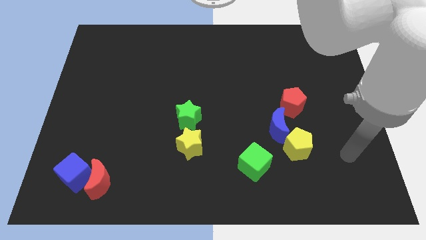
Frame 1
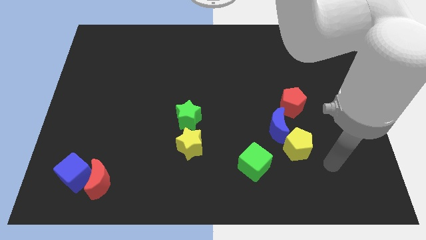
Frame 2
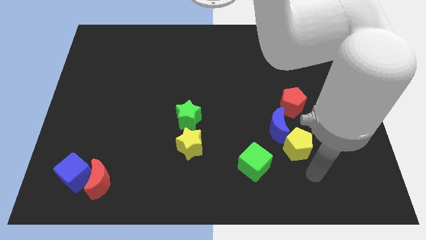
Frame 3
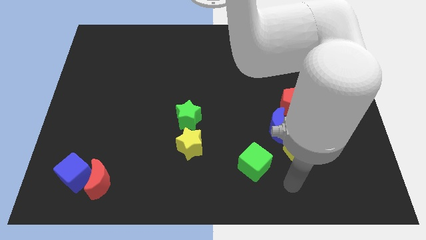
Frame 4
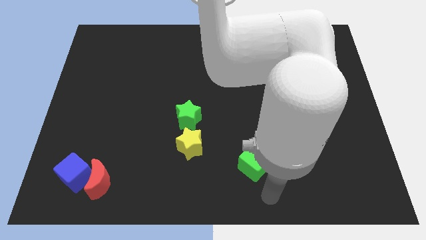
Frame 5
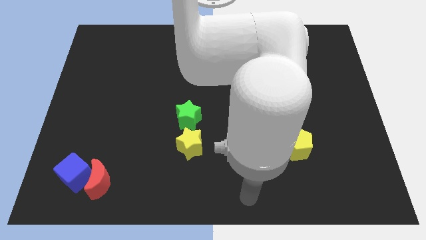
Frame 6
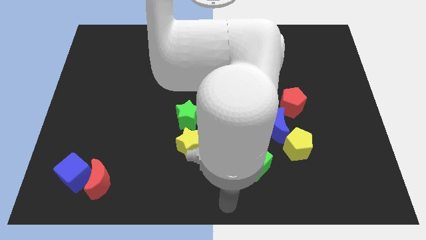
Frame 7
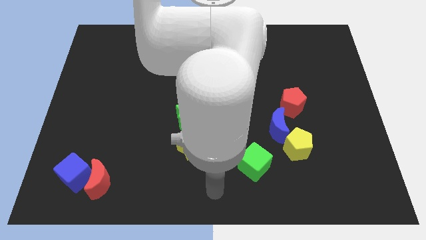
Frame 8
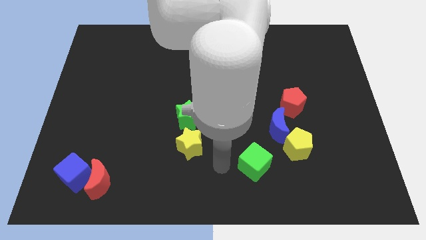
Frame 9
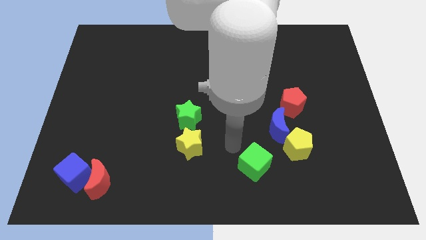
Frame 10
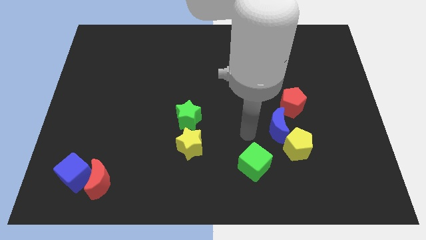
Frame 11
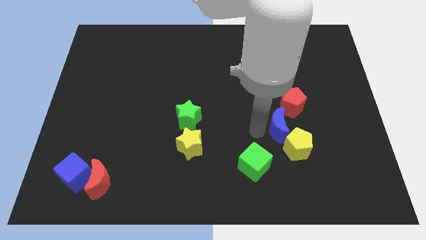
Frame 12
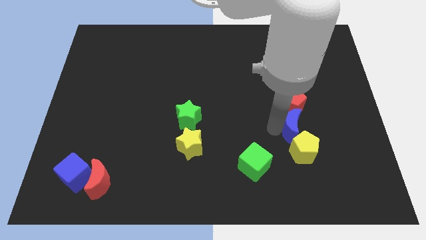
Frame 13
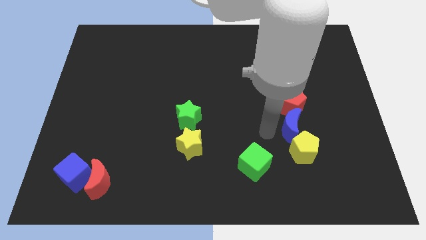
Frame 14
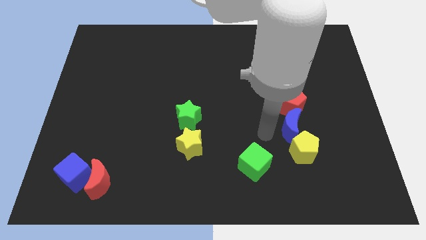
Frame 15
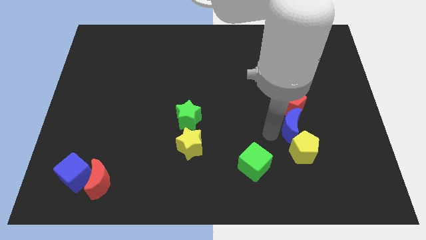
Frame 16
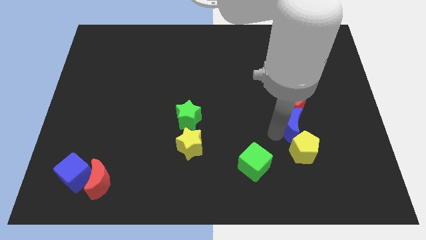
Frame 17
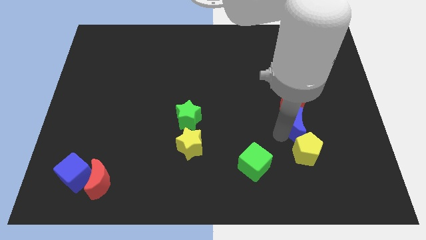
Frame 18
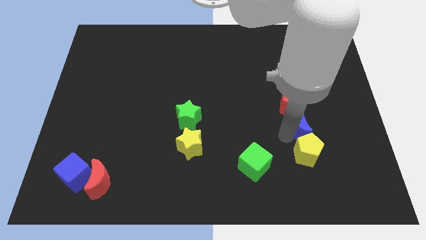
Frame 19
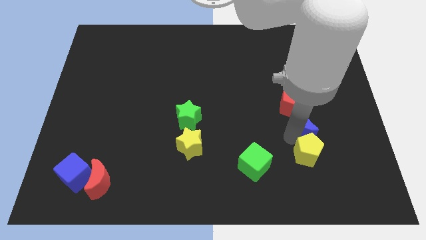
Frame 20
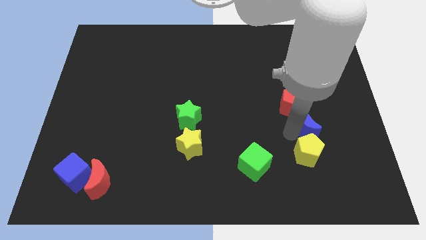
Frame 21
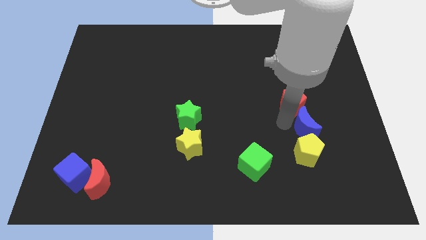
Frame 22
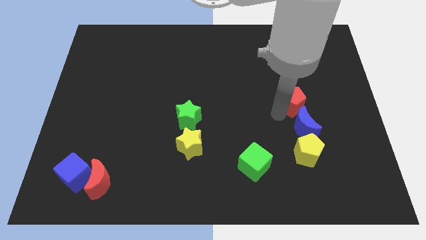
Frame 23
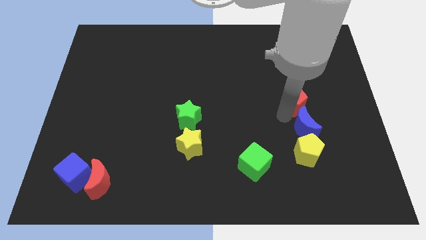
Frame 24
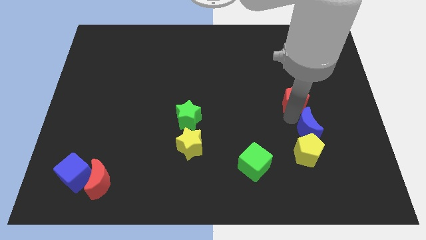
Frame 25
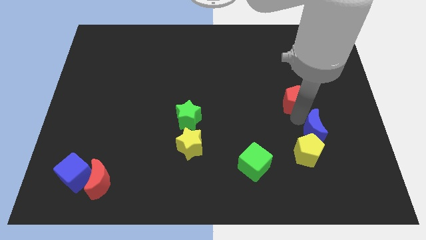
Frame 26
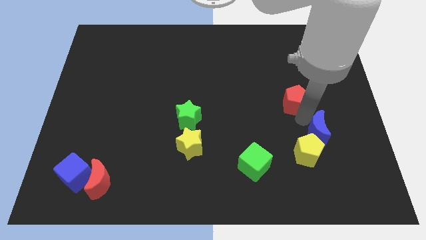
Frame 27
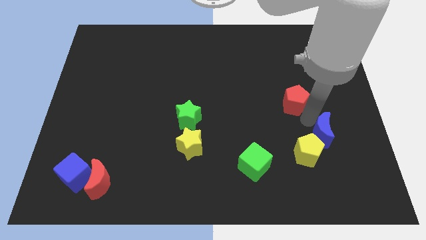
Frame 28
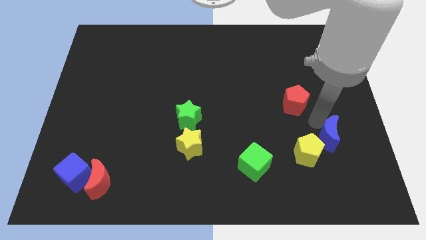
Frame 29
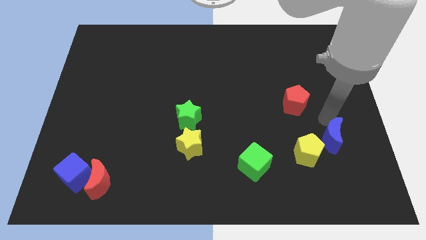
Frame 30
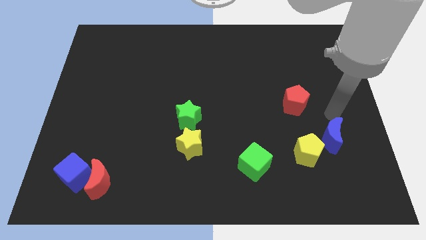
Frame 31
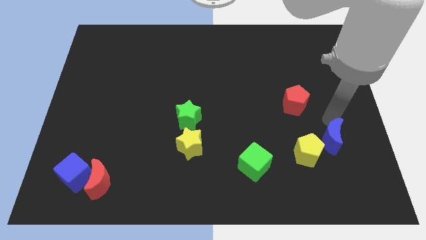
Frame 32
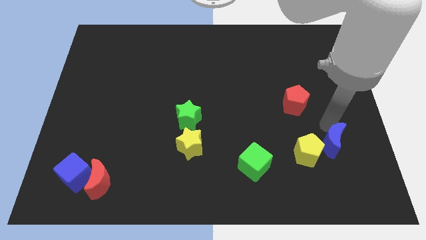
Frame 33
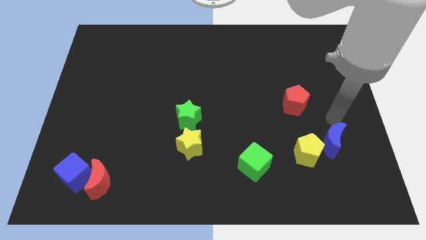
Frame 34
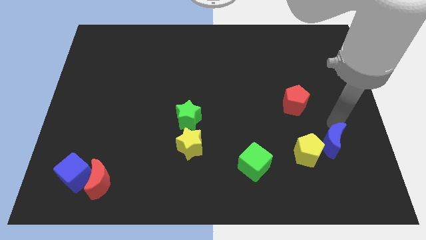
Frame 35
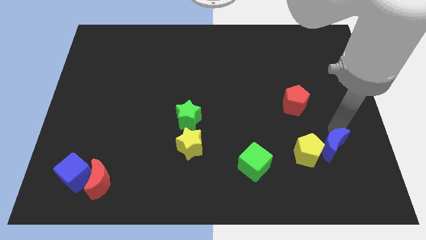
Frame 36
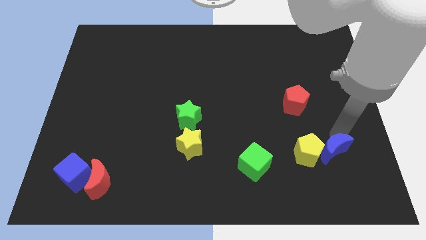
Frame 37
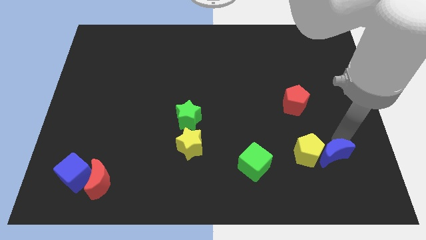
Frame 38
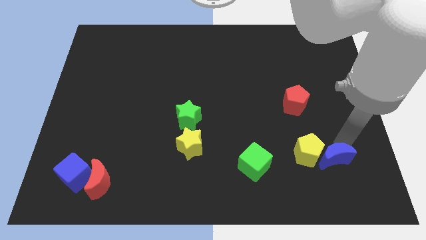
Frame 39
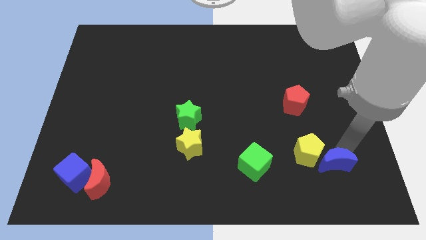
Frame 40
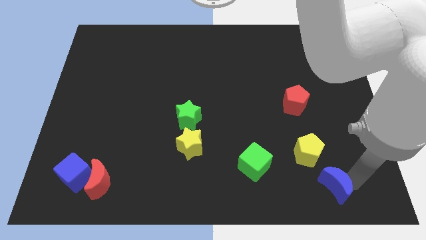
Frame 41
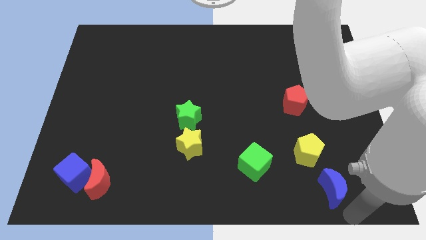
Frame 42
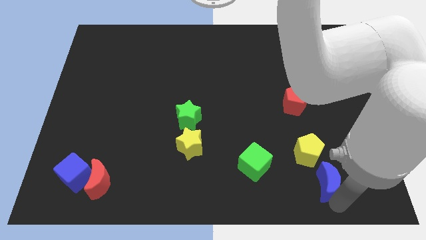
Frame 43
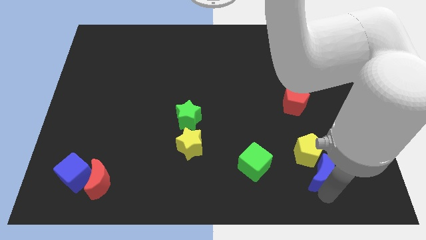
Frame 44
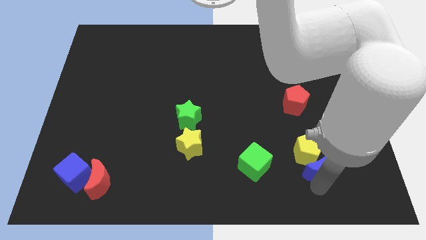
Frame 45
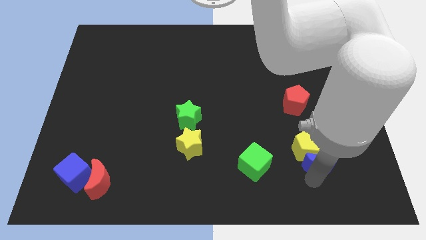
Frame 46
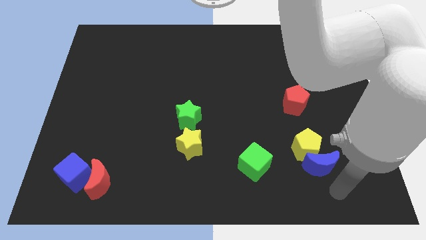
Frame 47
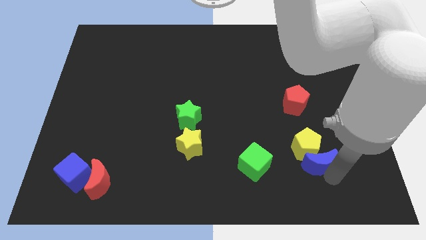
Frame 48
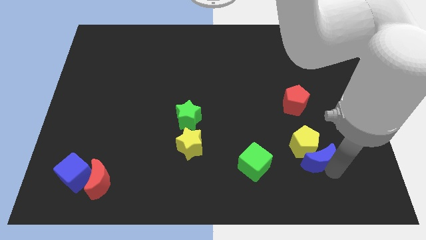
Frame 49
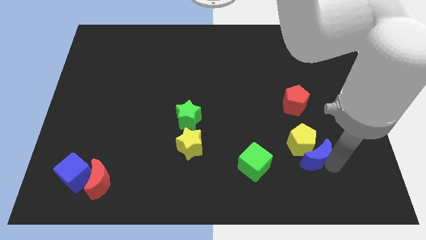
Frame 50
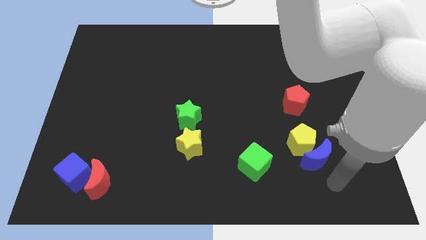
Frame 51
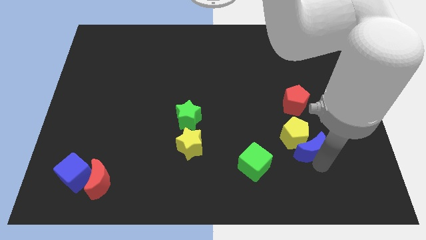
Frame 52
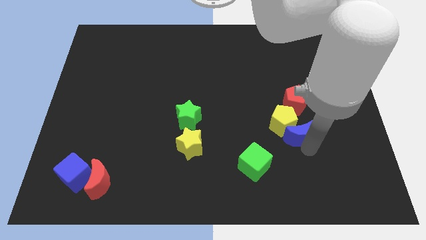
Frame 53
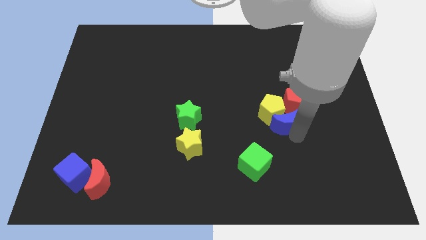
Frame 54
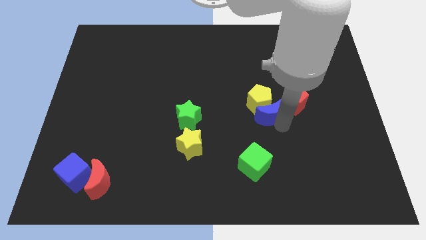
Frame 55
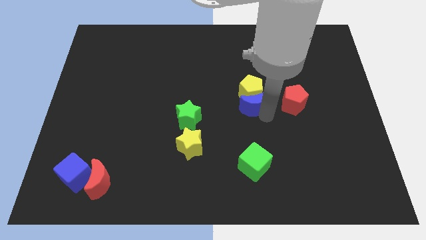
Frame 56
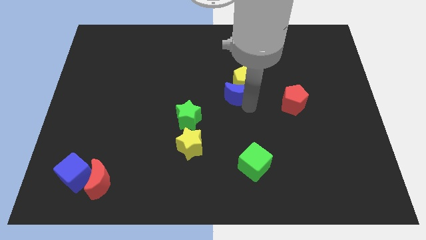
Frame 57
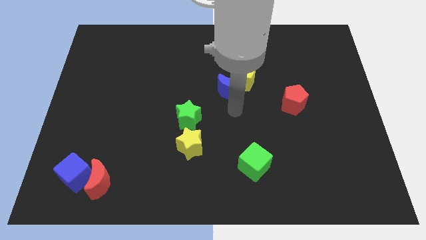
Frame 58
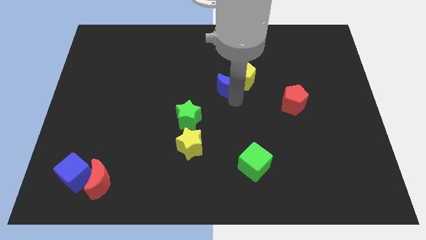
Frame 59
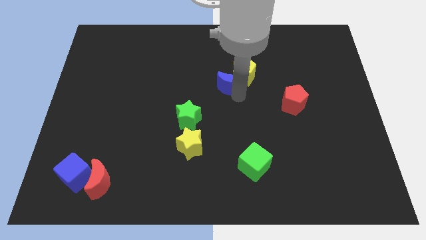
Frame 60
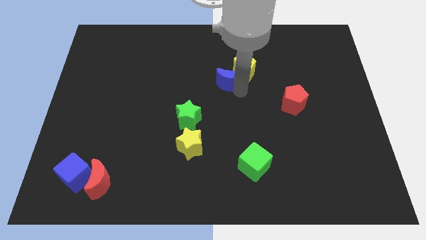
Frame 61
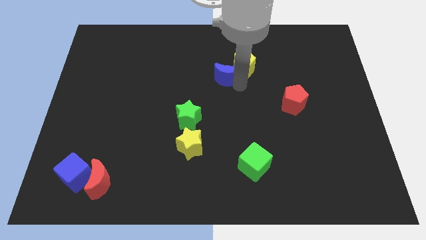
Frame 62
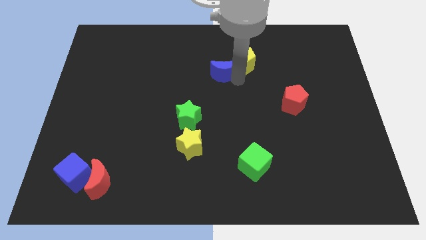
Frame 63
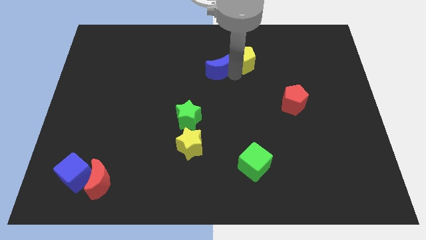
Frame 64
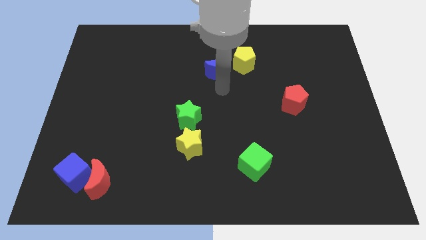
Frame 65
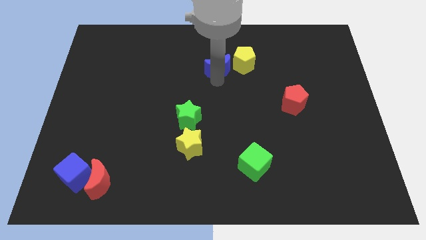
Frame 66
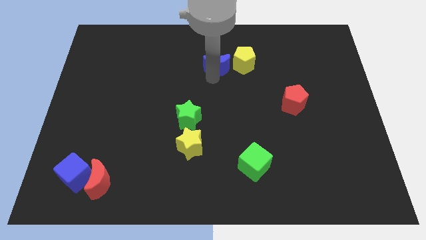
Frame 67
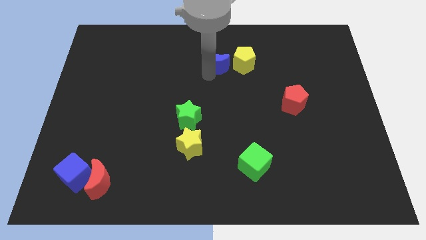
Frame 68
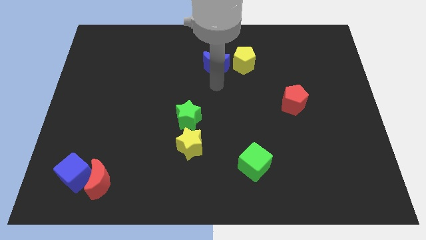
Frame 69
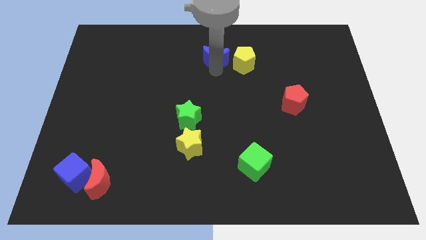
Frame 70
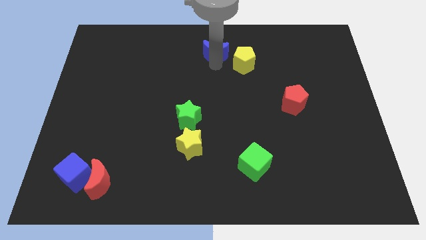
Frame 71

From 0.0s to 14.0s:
slide the blue moon to the top side
